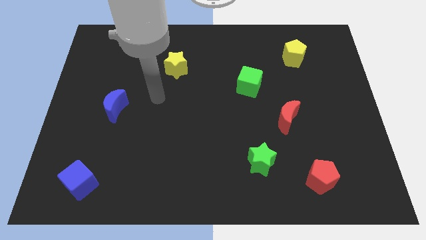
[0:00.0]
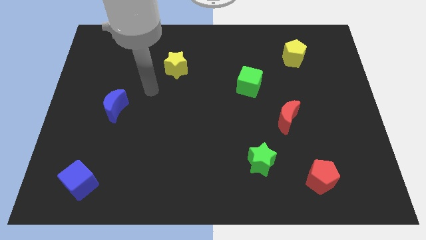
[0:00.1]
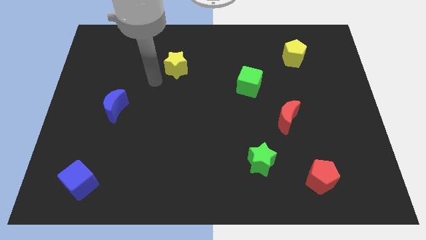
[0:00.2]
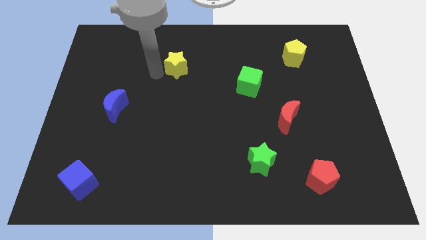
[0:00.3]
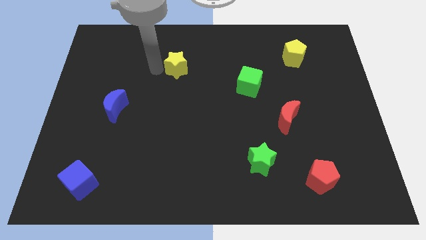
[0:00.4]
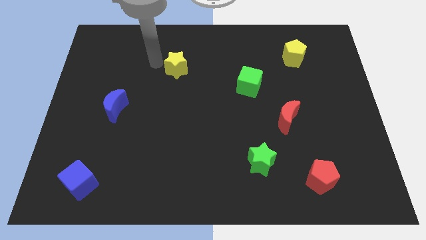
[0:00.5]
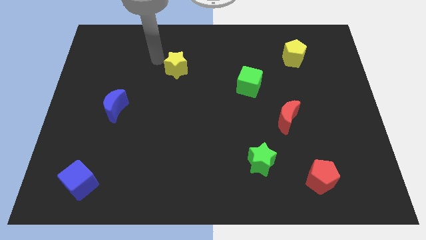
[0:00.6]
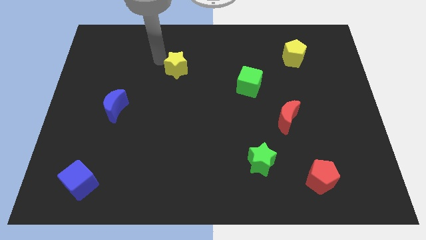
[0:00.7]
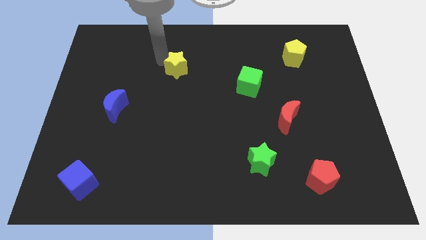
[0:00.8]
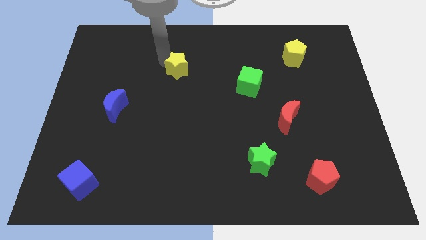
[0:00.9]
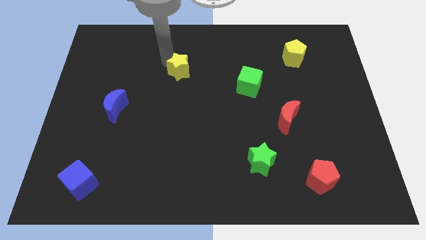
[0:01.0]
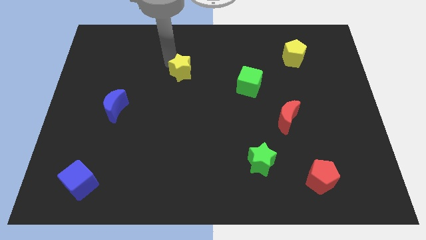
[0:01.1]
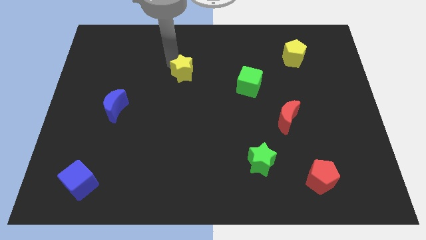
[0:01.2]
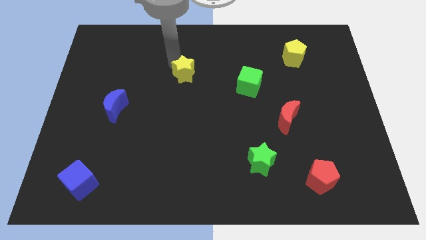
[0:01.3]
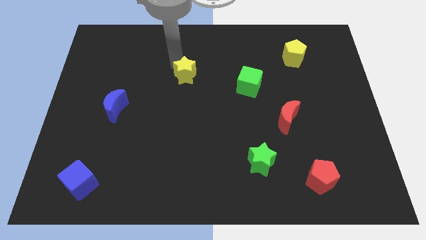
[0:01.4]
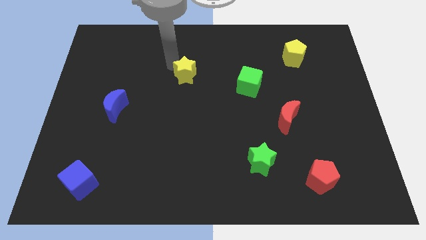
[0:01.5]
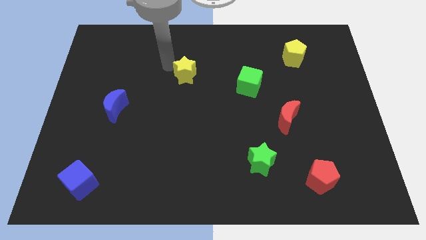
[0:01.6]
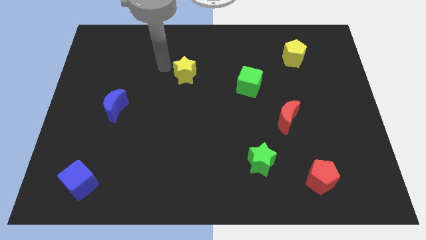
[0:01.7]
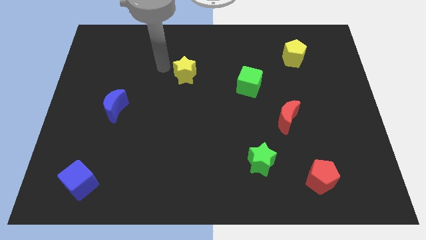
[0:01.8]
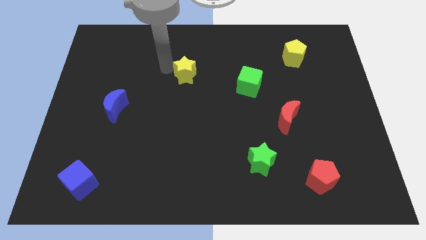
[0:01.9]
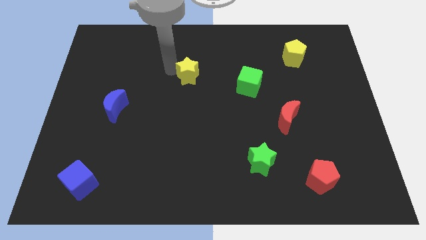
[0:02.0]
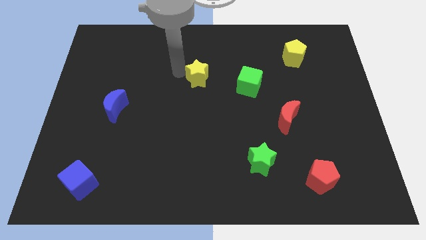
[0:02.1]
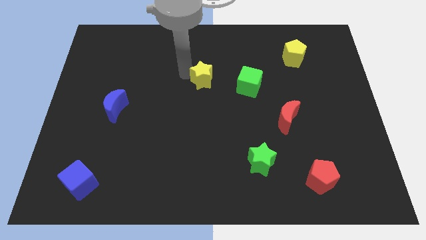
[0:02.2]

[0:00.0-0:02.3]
slide the yellow star downwards and then to the right a little bit

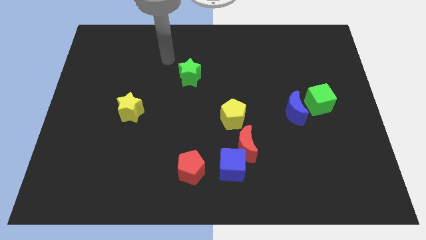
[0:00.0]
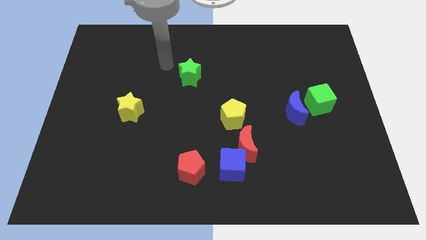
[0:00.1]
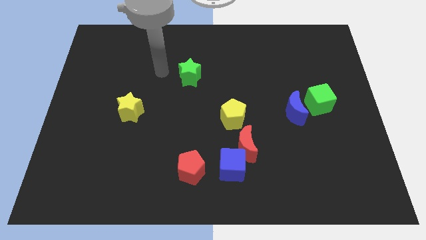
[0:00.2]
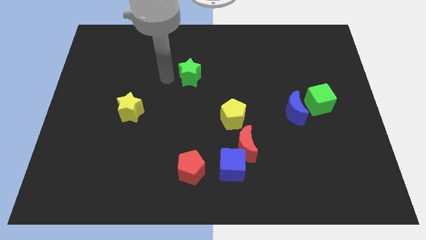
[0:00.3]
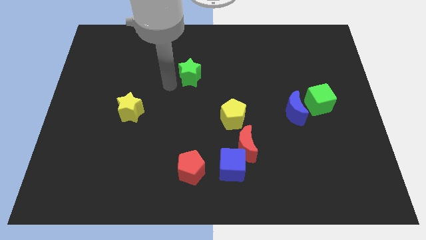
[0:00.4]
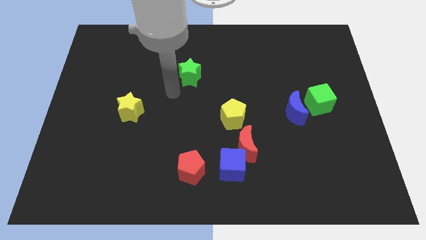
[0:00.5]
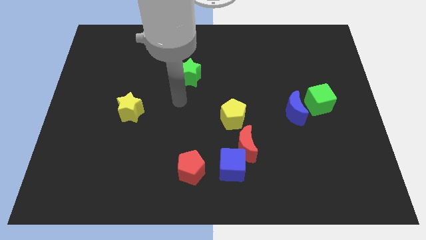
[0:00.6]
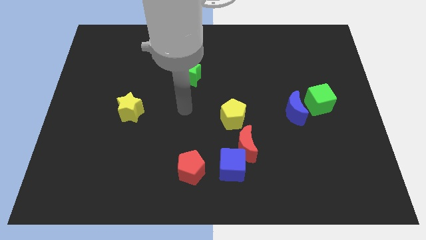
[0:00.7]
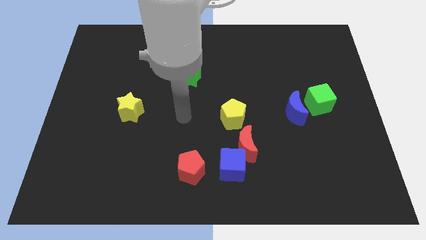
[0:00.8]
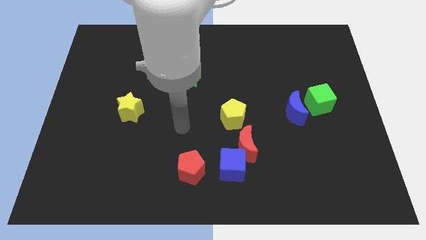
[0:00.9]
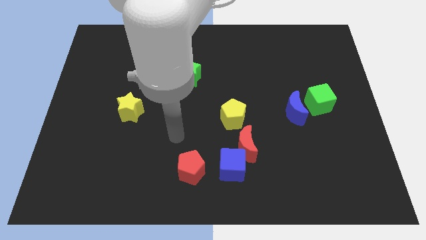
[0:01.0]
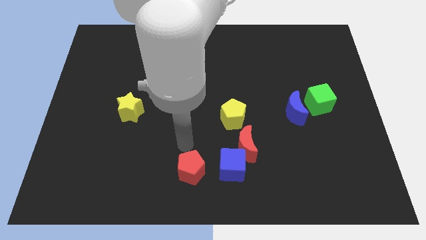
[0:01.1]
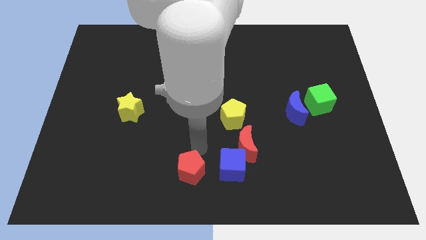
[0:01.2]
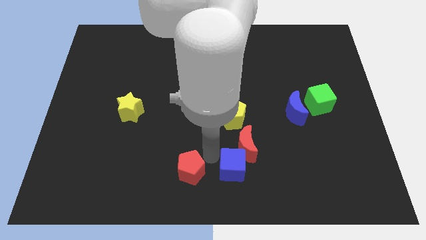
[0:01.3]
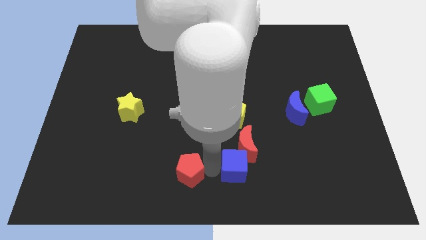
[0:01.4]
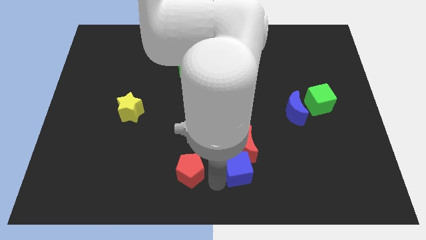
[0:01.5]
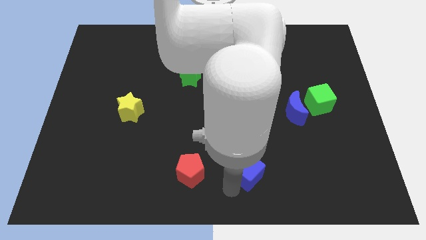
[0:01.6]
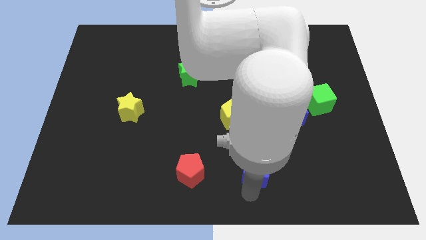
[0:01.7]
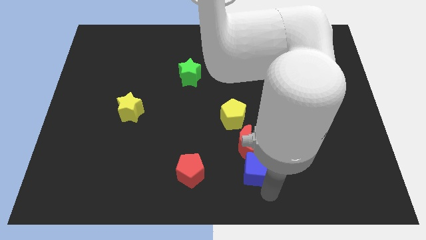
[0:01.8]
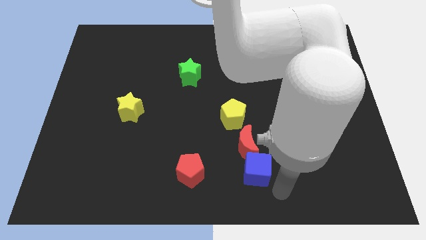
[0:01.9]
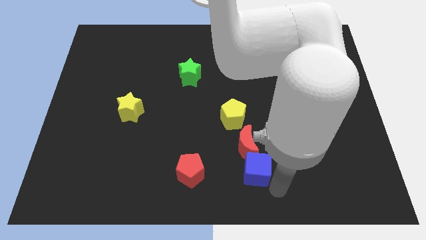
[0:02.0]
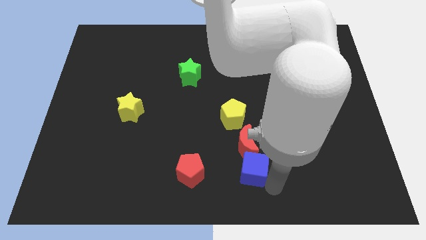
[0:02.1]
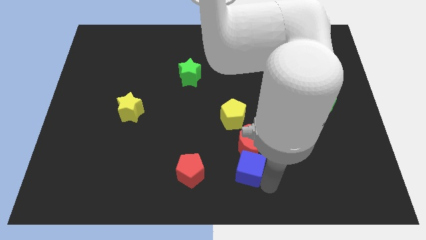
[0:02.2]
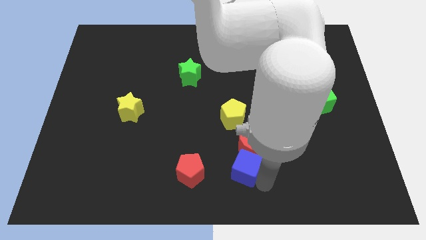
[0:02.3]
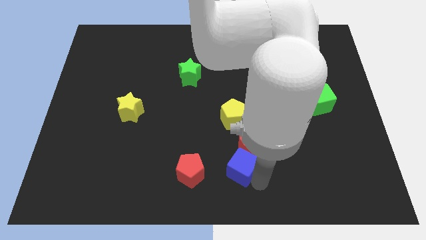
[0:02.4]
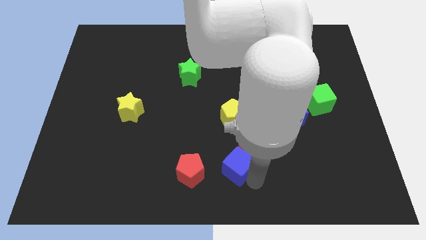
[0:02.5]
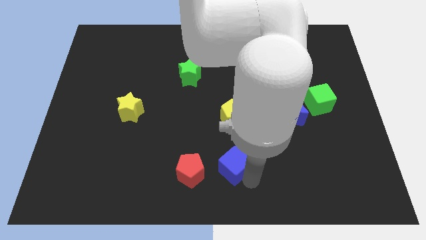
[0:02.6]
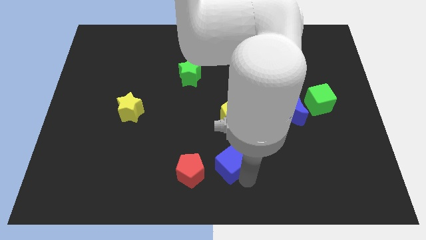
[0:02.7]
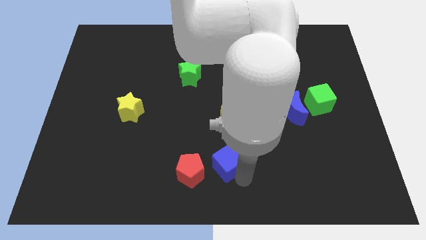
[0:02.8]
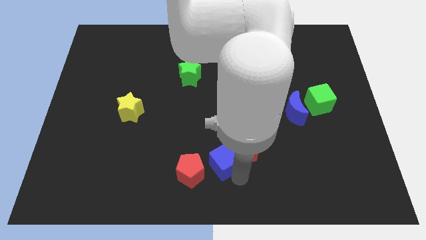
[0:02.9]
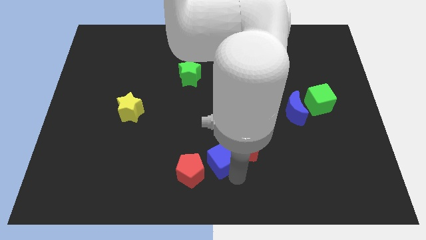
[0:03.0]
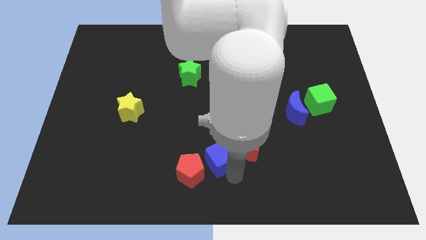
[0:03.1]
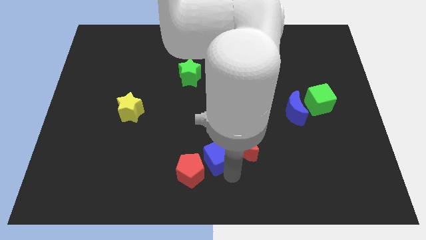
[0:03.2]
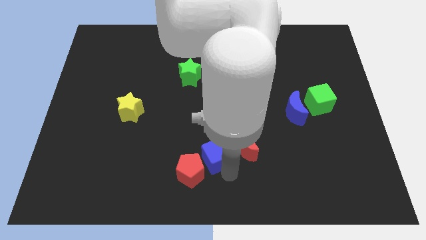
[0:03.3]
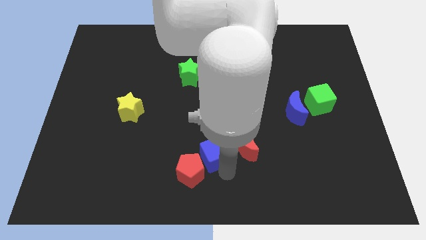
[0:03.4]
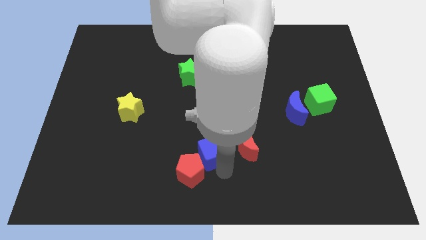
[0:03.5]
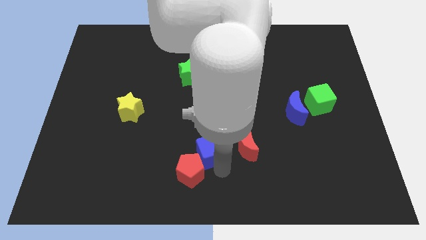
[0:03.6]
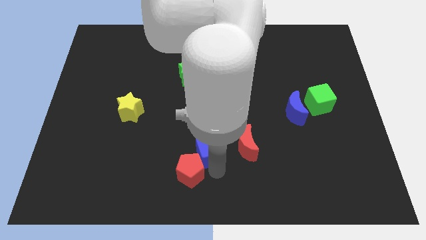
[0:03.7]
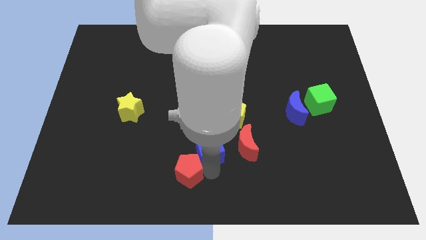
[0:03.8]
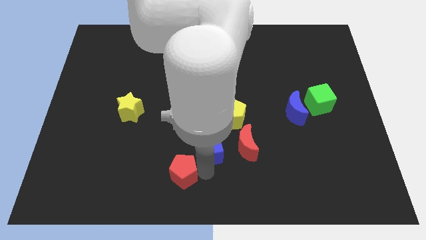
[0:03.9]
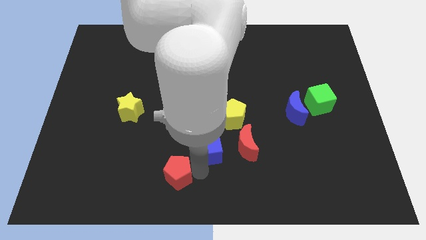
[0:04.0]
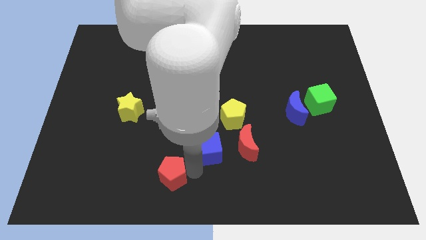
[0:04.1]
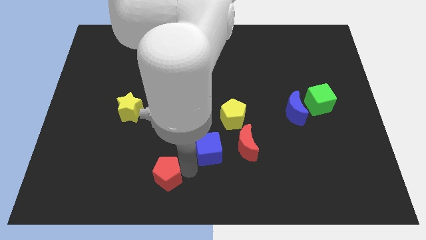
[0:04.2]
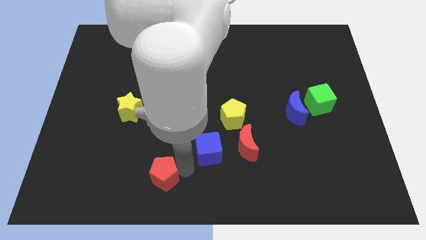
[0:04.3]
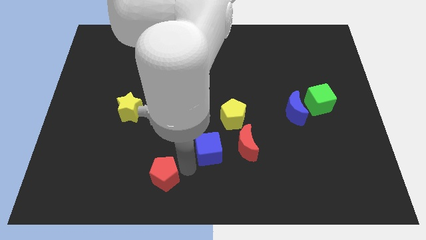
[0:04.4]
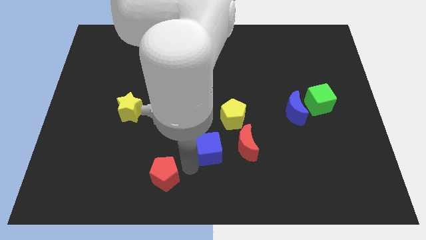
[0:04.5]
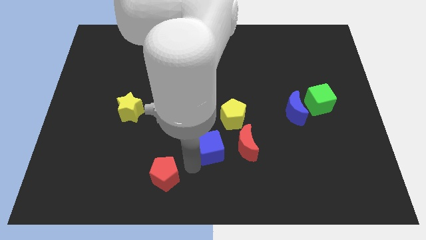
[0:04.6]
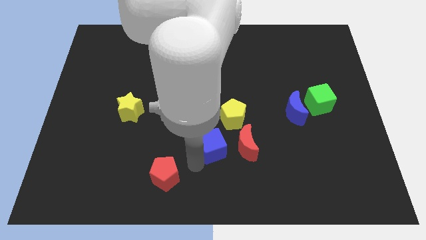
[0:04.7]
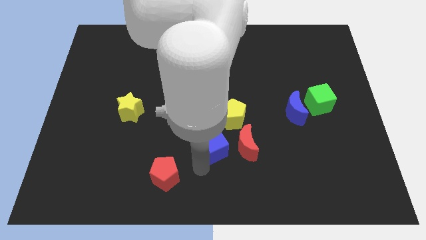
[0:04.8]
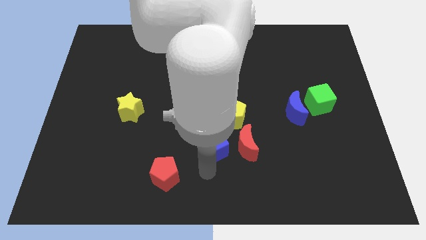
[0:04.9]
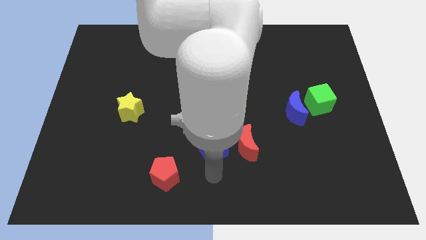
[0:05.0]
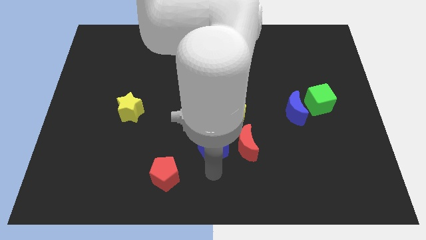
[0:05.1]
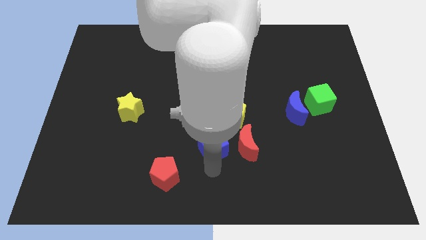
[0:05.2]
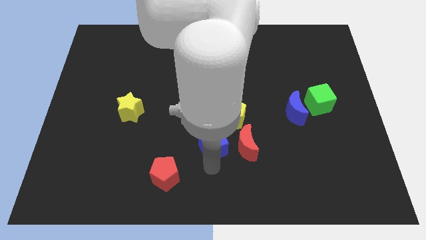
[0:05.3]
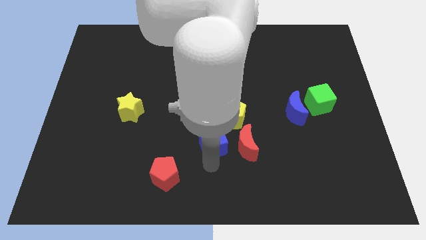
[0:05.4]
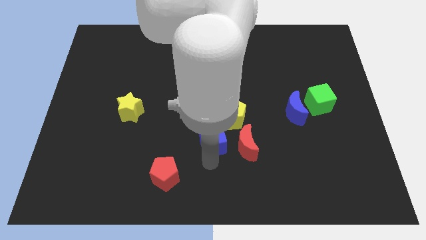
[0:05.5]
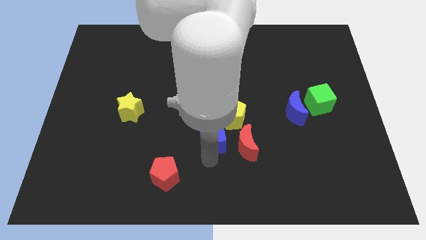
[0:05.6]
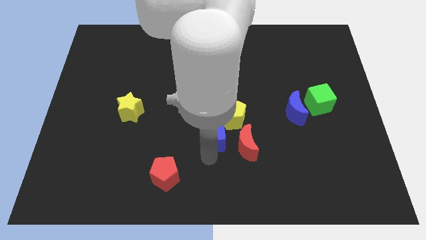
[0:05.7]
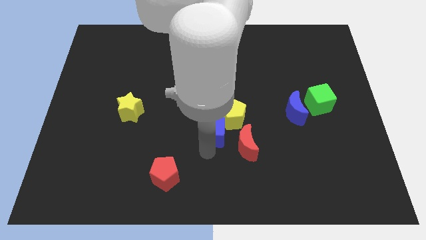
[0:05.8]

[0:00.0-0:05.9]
push the blue cube upwards slightly
